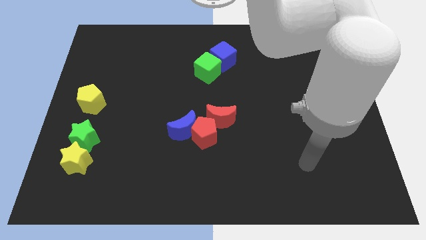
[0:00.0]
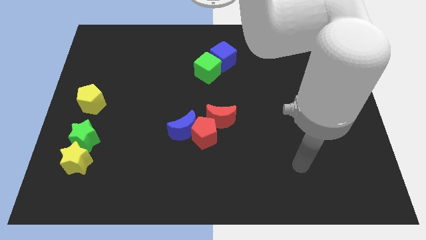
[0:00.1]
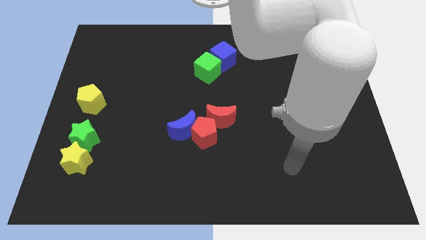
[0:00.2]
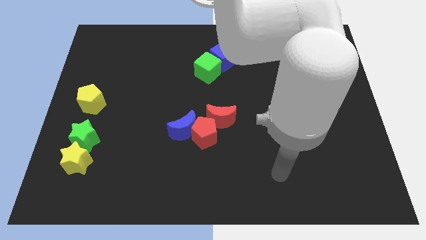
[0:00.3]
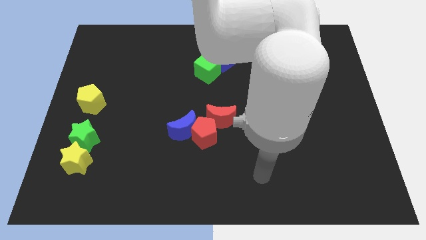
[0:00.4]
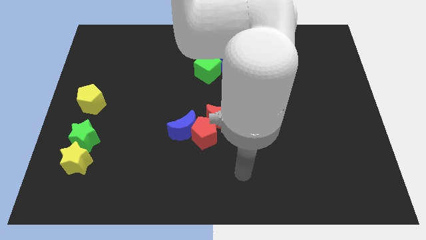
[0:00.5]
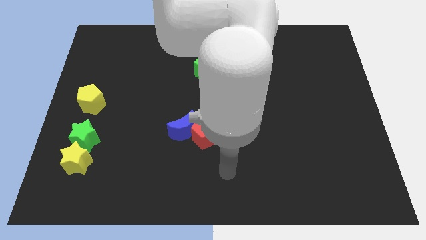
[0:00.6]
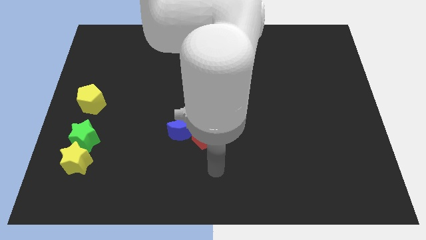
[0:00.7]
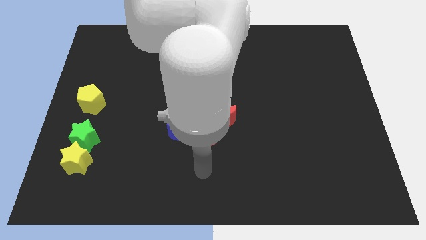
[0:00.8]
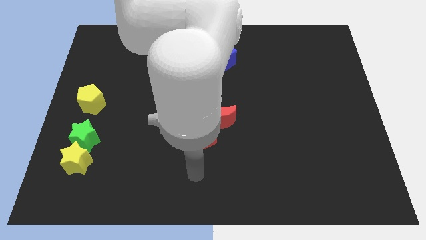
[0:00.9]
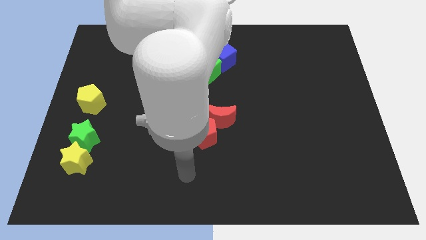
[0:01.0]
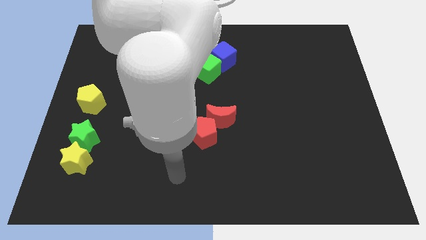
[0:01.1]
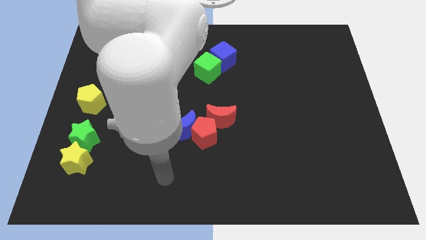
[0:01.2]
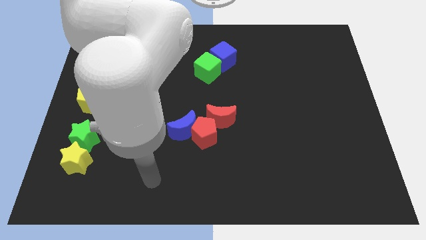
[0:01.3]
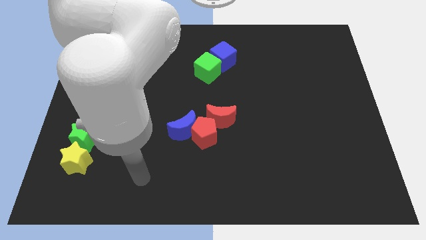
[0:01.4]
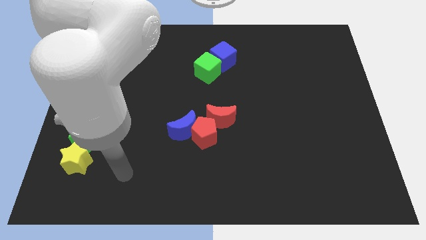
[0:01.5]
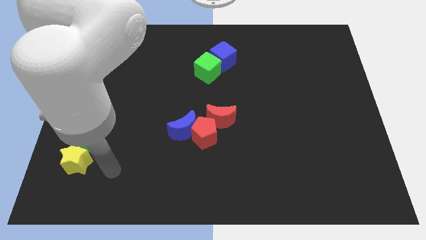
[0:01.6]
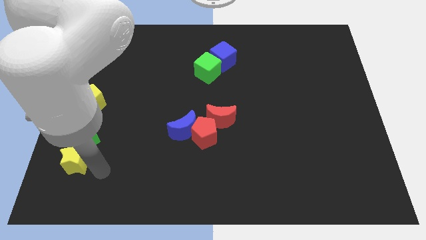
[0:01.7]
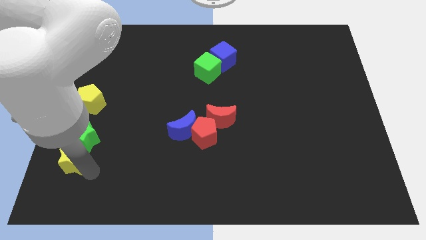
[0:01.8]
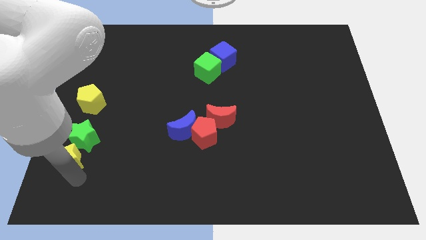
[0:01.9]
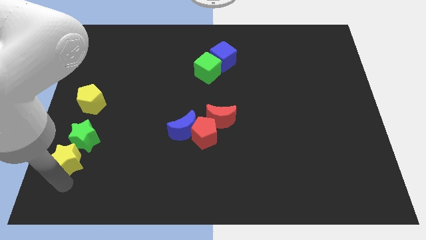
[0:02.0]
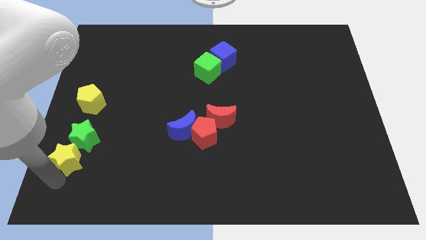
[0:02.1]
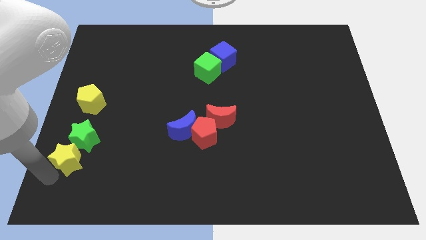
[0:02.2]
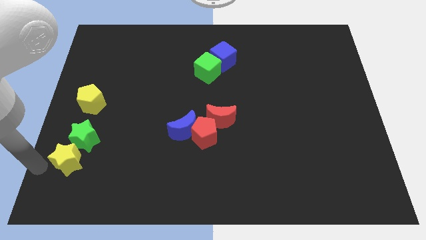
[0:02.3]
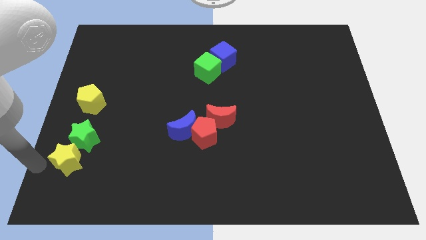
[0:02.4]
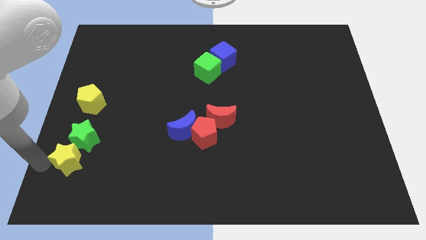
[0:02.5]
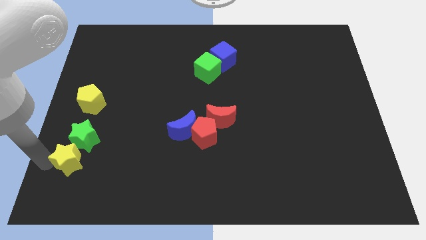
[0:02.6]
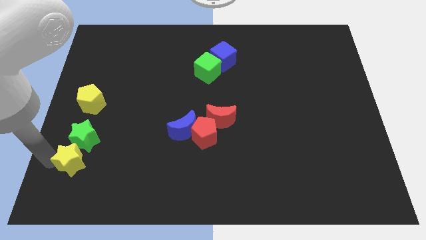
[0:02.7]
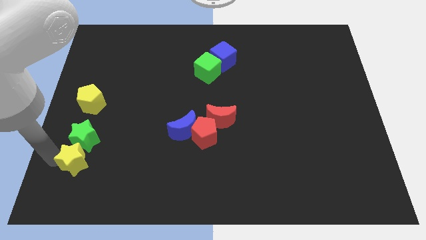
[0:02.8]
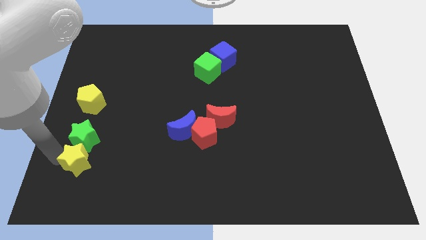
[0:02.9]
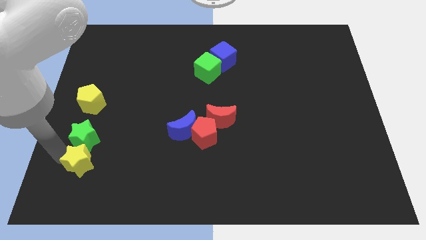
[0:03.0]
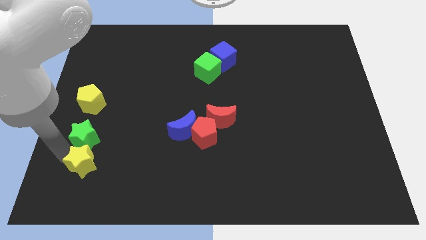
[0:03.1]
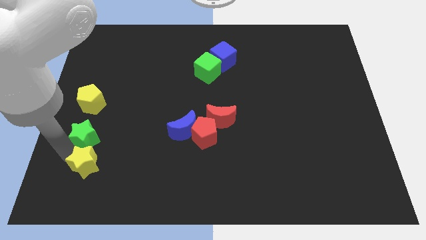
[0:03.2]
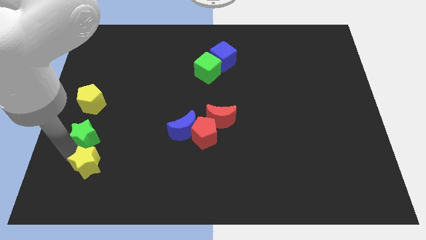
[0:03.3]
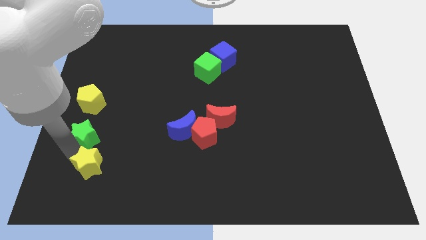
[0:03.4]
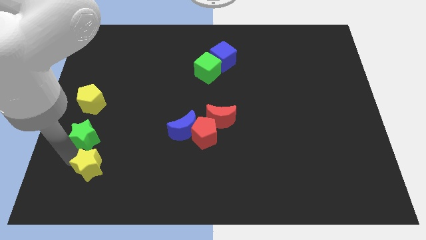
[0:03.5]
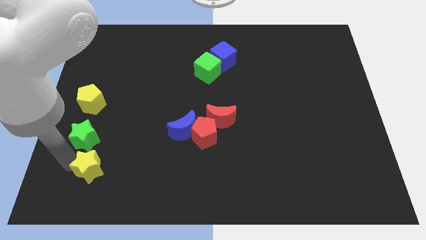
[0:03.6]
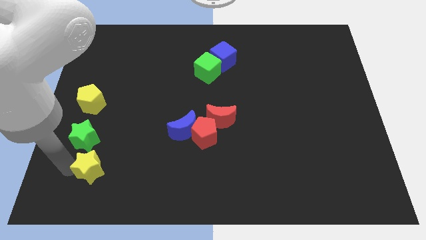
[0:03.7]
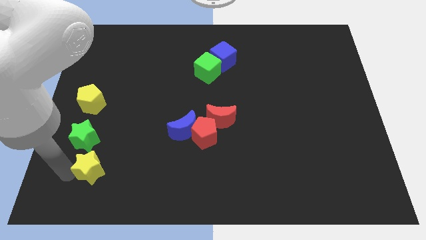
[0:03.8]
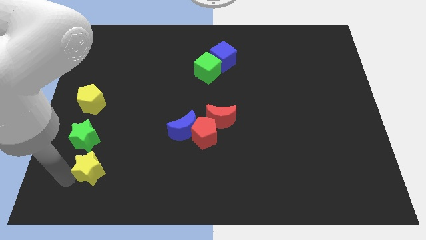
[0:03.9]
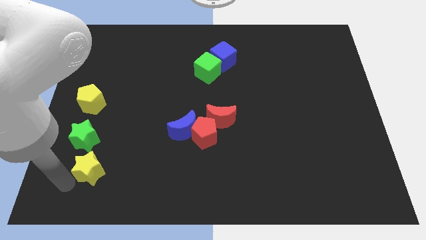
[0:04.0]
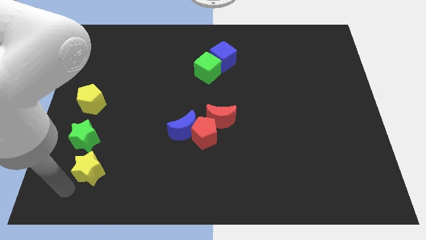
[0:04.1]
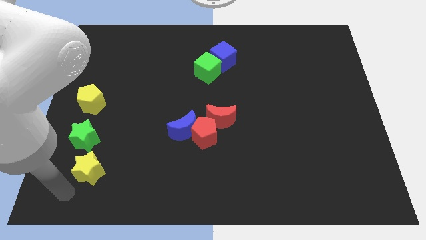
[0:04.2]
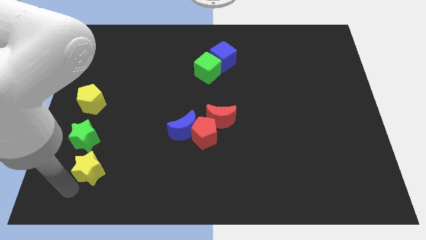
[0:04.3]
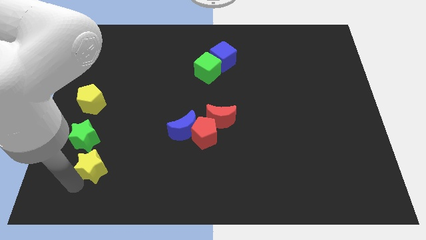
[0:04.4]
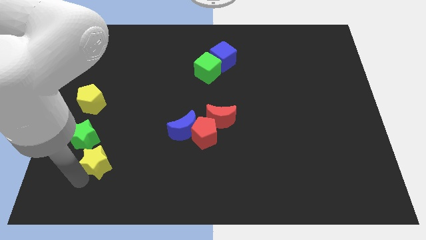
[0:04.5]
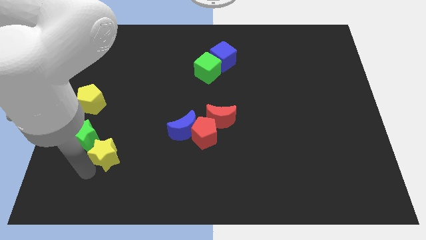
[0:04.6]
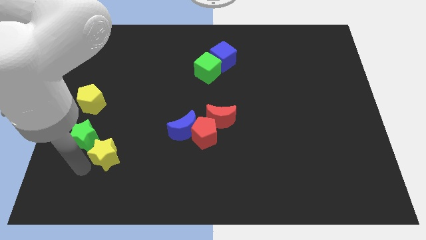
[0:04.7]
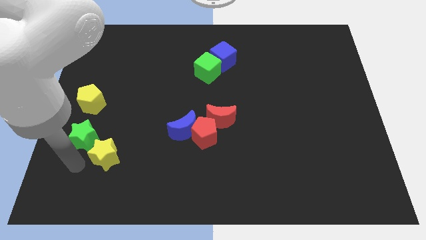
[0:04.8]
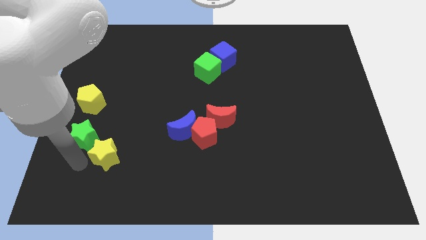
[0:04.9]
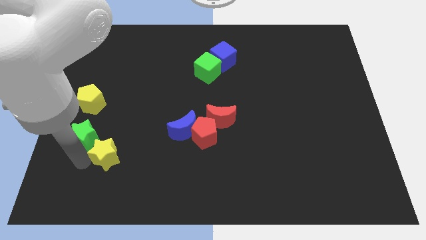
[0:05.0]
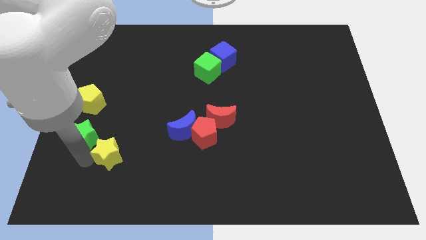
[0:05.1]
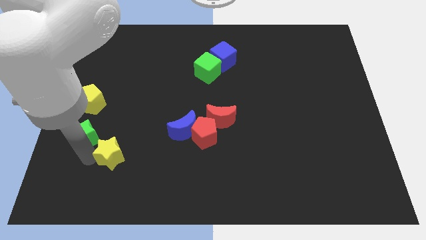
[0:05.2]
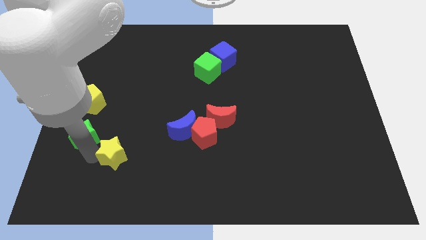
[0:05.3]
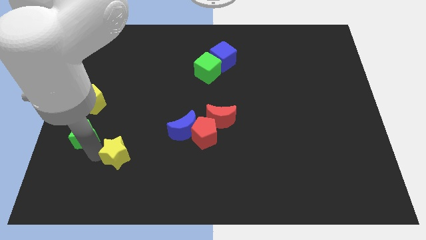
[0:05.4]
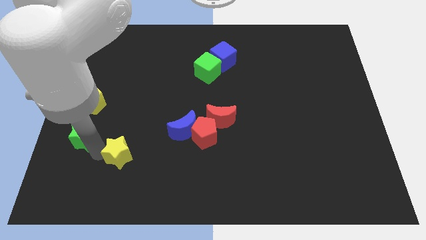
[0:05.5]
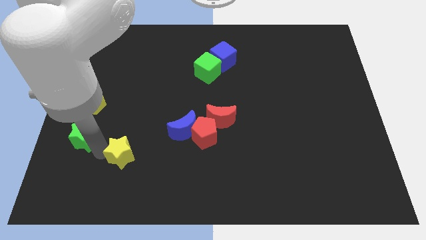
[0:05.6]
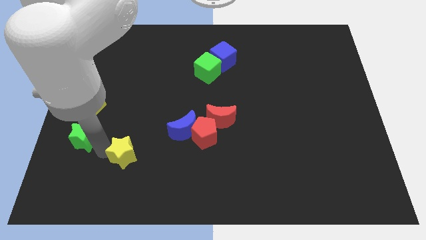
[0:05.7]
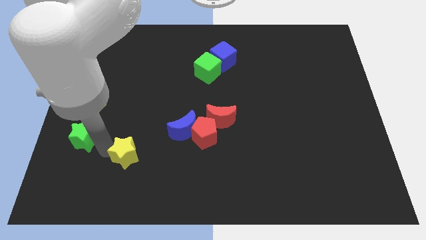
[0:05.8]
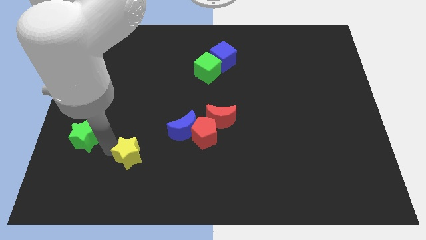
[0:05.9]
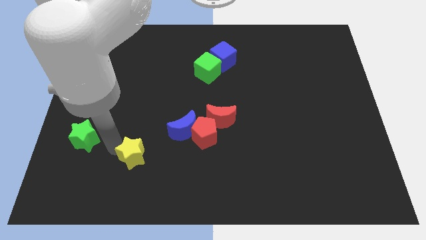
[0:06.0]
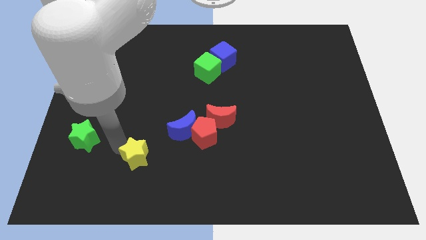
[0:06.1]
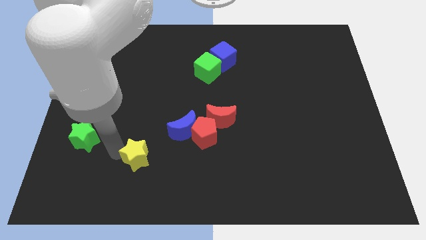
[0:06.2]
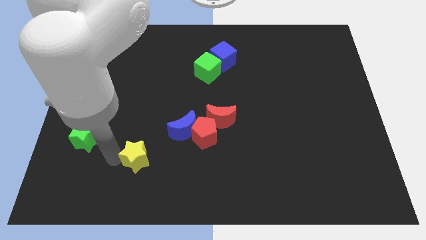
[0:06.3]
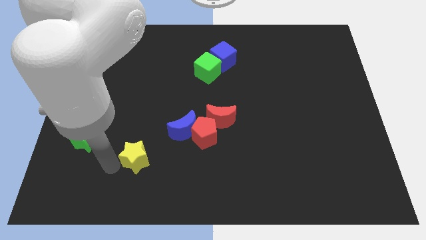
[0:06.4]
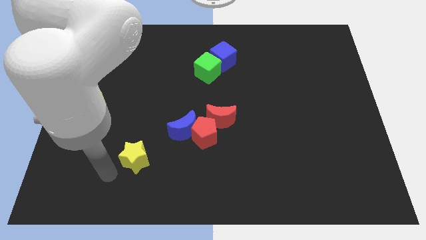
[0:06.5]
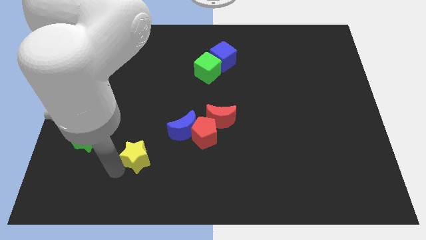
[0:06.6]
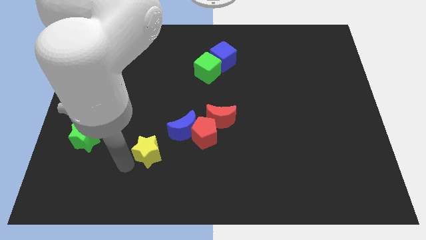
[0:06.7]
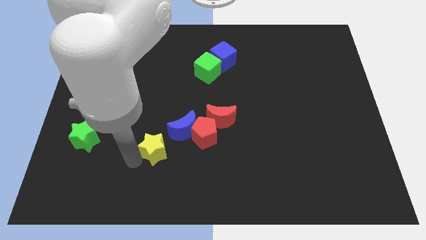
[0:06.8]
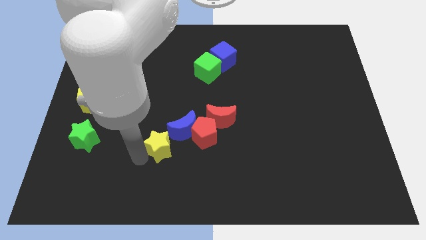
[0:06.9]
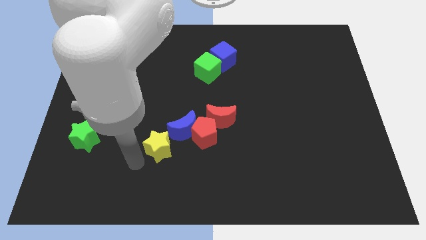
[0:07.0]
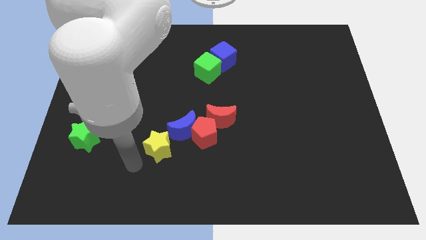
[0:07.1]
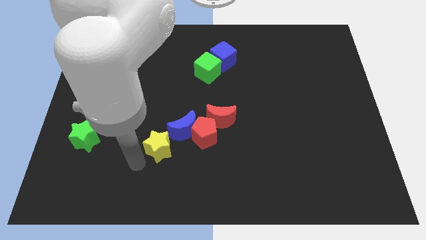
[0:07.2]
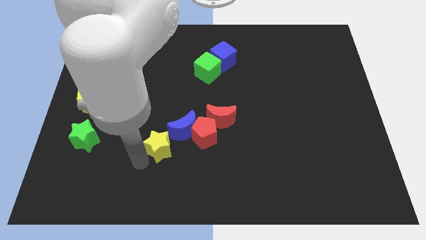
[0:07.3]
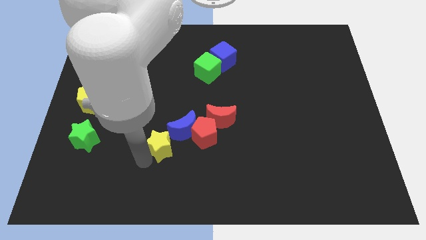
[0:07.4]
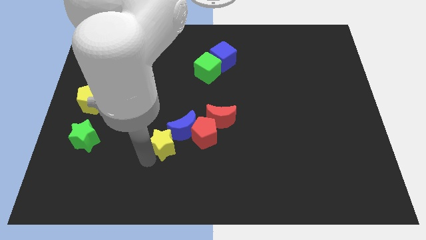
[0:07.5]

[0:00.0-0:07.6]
put the yellow star next to the blue moon
